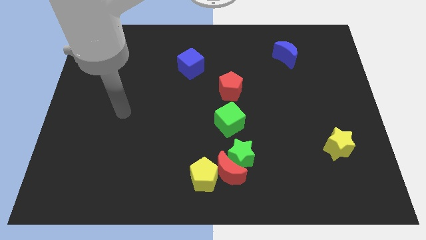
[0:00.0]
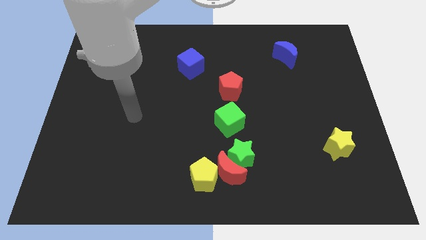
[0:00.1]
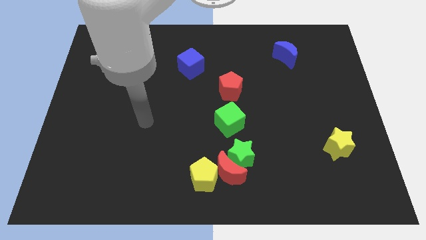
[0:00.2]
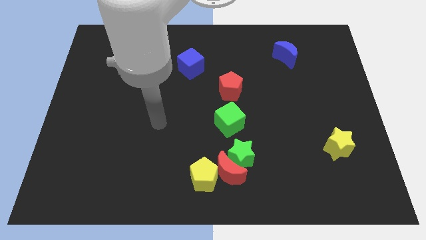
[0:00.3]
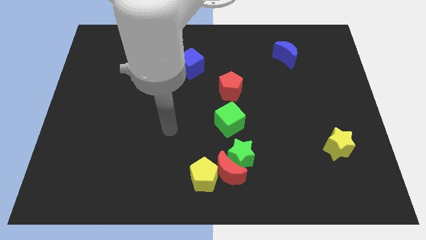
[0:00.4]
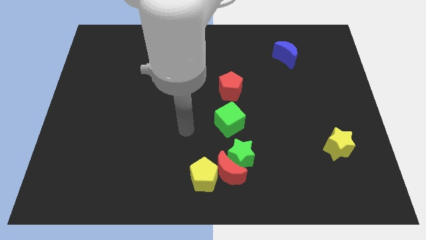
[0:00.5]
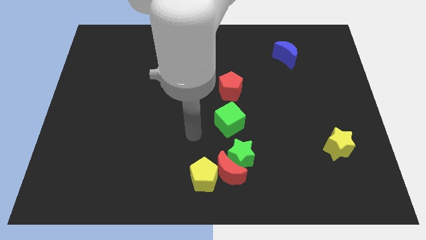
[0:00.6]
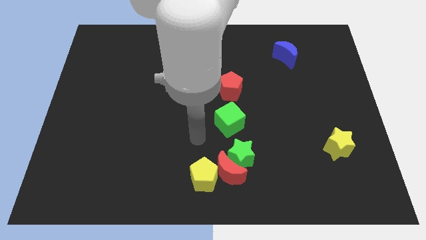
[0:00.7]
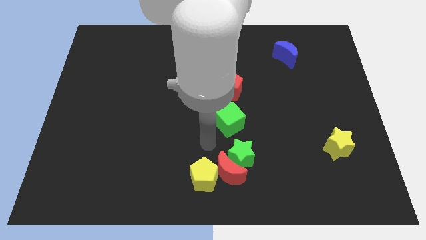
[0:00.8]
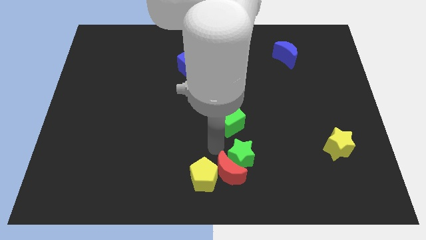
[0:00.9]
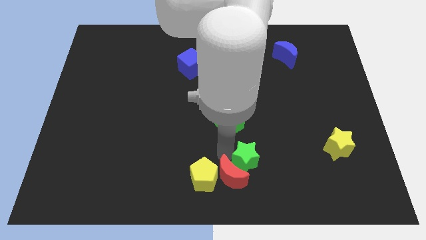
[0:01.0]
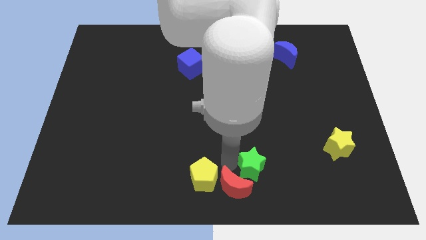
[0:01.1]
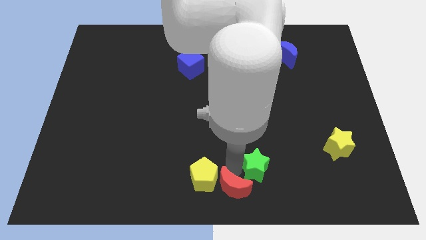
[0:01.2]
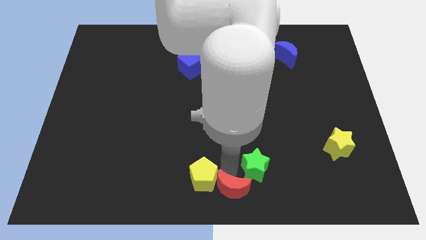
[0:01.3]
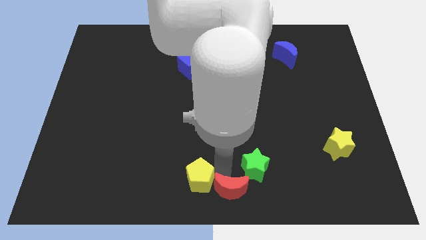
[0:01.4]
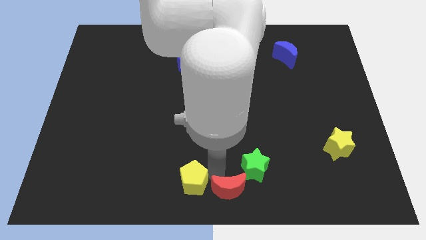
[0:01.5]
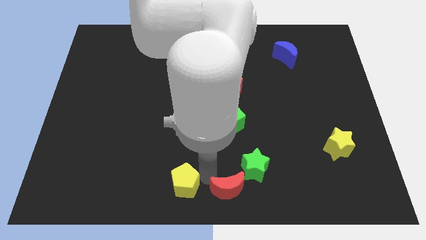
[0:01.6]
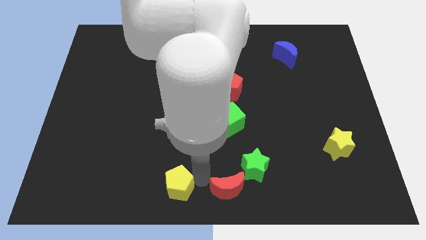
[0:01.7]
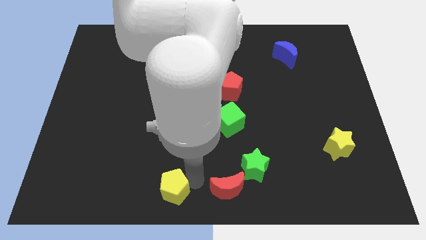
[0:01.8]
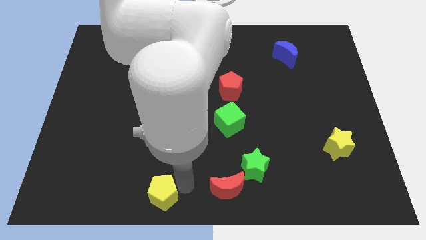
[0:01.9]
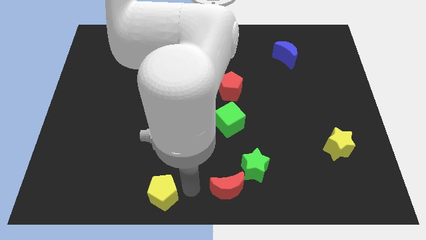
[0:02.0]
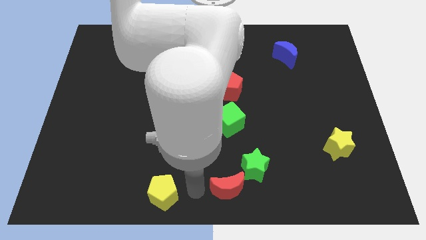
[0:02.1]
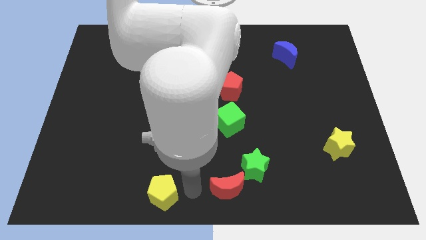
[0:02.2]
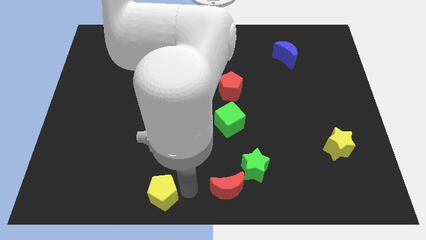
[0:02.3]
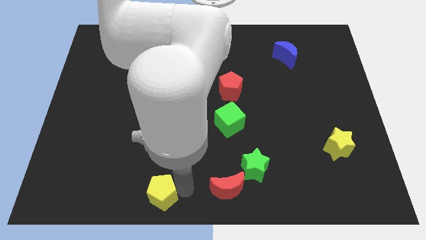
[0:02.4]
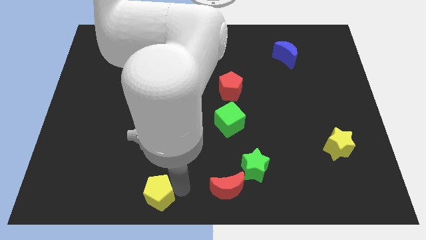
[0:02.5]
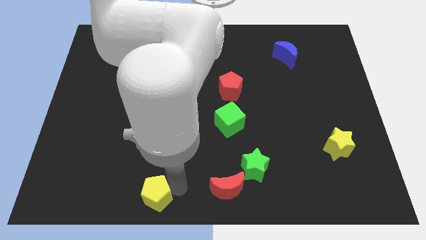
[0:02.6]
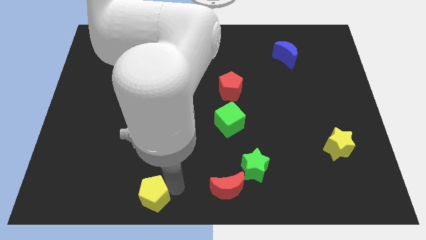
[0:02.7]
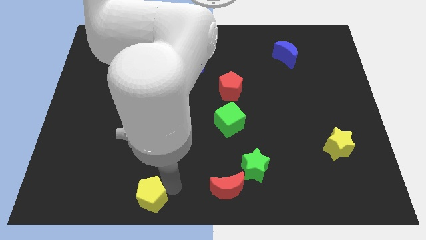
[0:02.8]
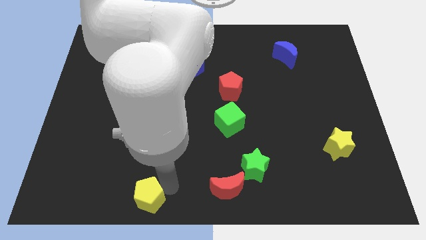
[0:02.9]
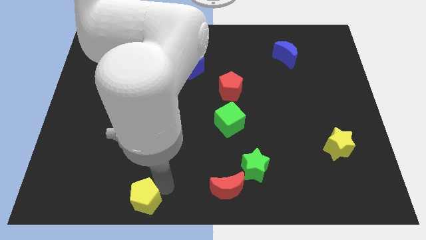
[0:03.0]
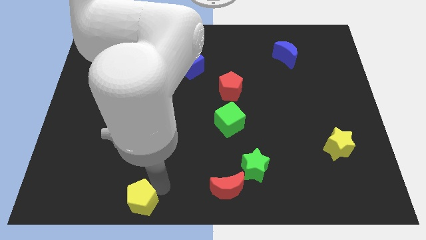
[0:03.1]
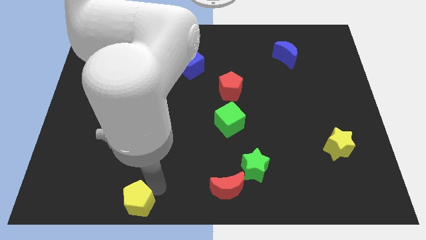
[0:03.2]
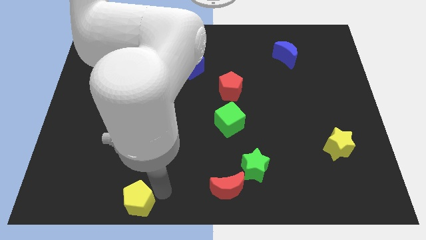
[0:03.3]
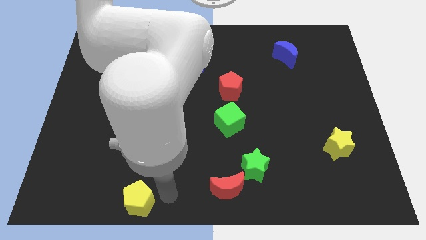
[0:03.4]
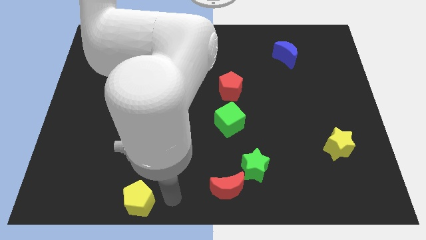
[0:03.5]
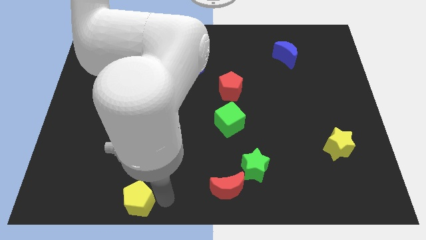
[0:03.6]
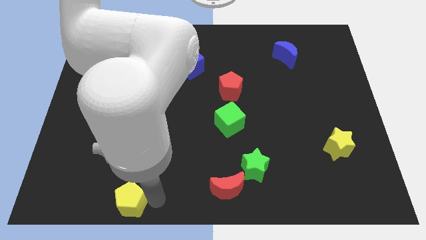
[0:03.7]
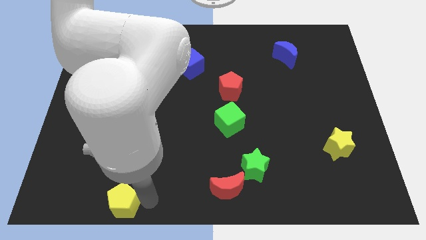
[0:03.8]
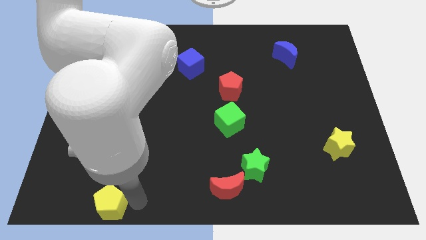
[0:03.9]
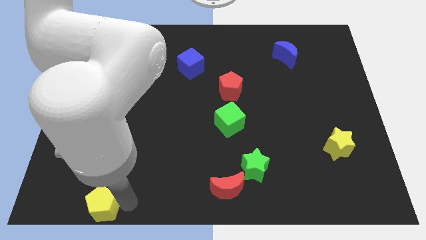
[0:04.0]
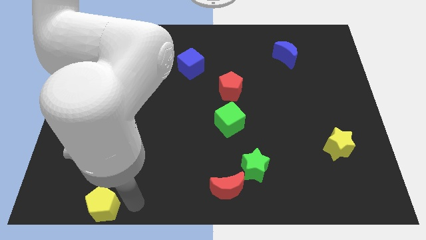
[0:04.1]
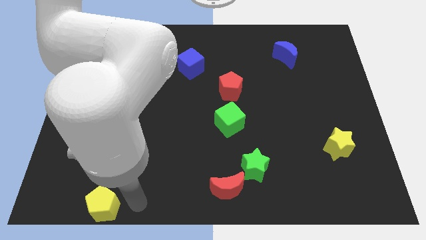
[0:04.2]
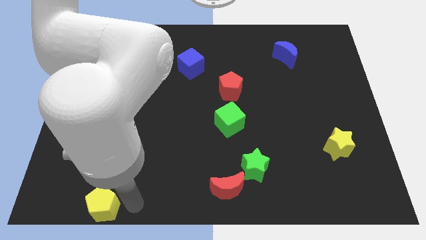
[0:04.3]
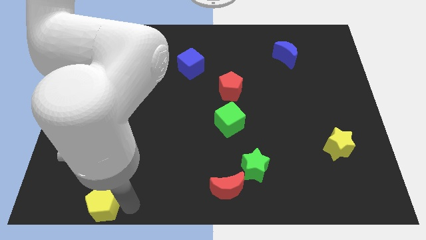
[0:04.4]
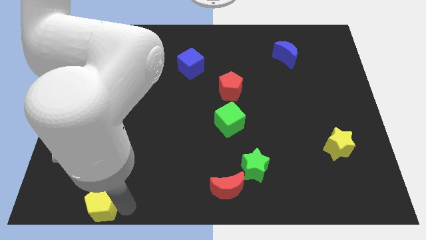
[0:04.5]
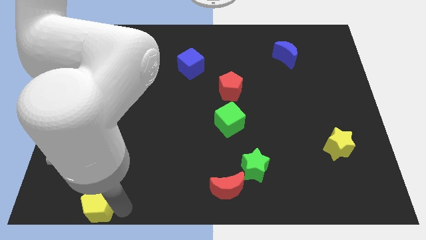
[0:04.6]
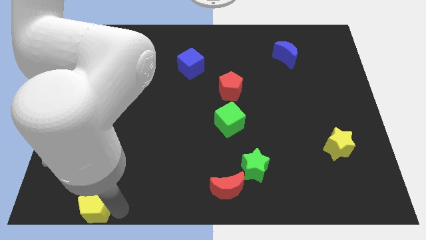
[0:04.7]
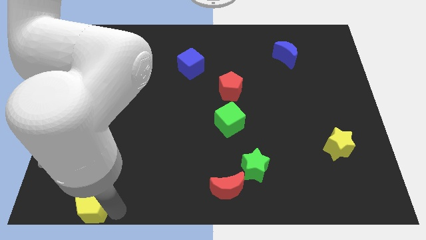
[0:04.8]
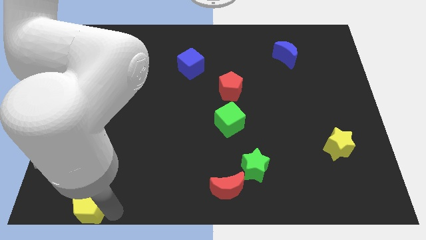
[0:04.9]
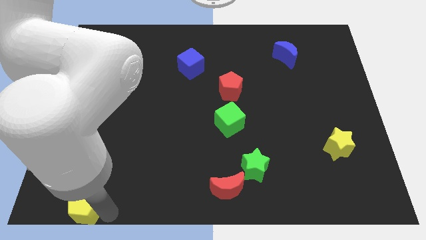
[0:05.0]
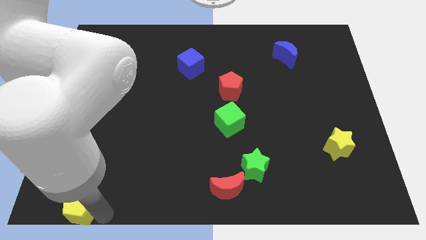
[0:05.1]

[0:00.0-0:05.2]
put the yellow pentagon to the lower left corner
